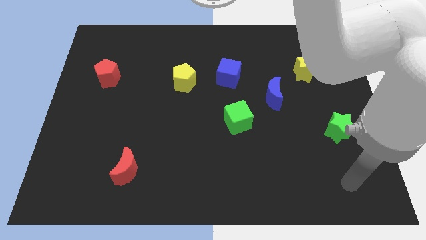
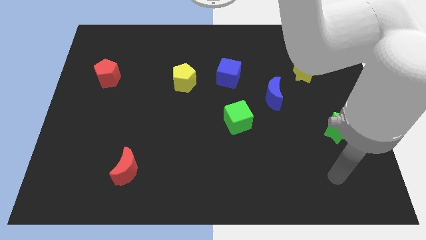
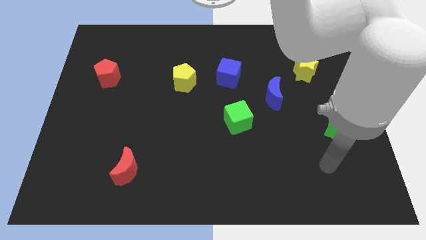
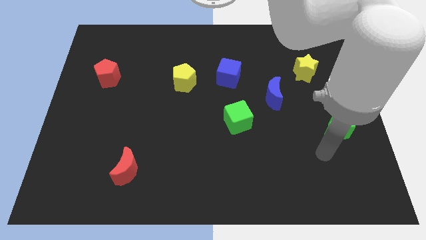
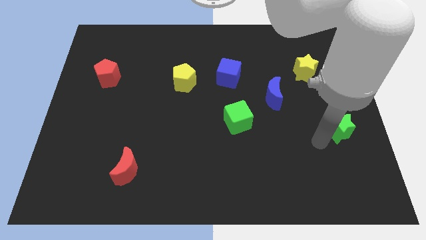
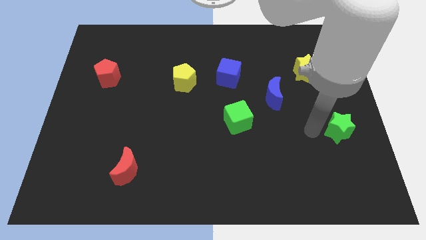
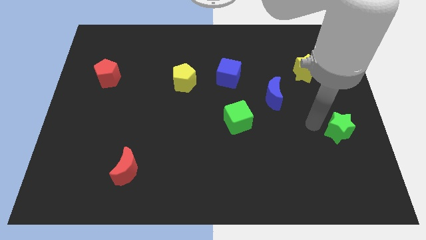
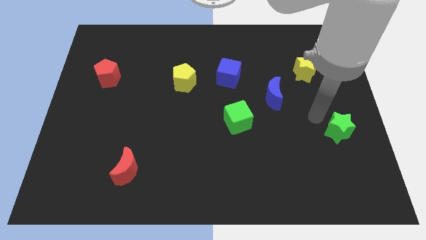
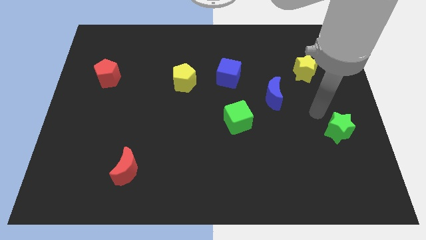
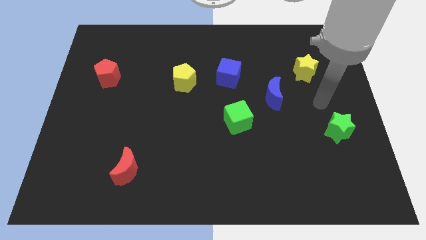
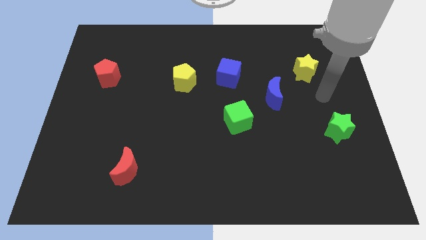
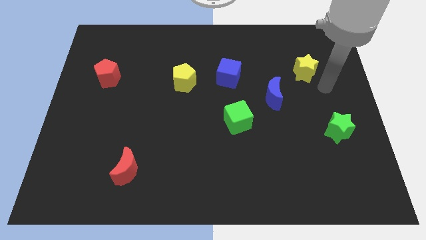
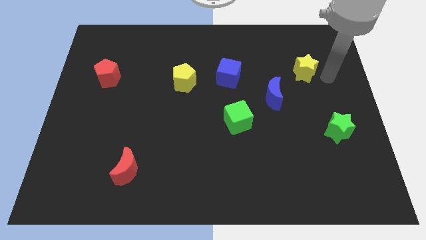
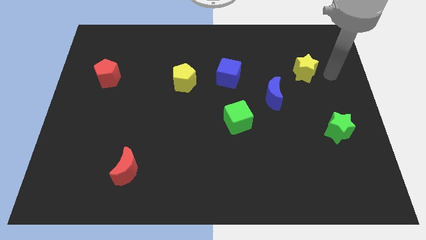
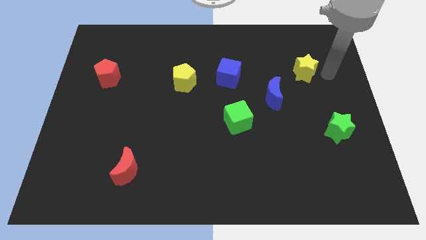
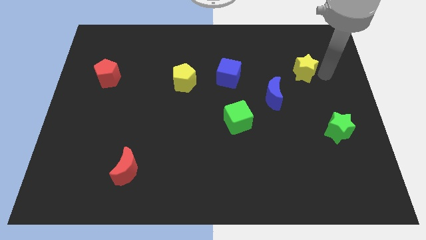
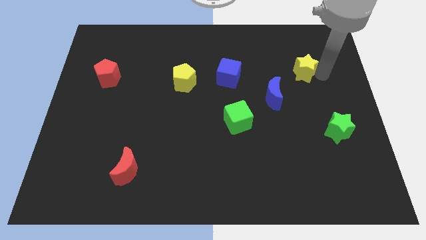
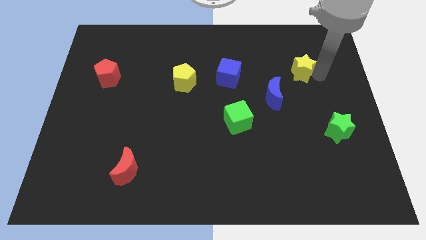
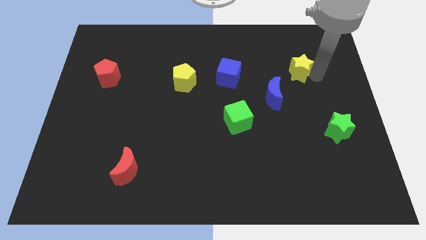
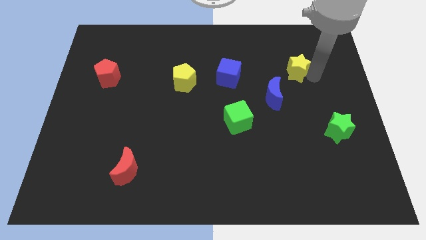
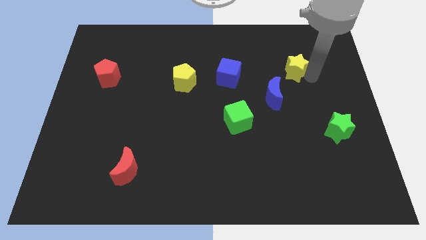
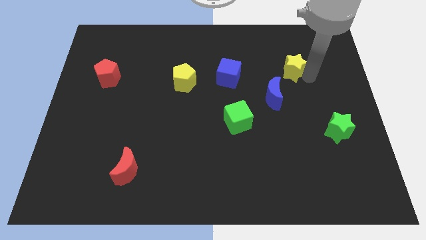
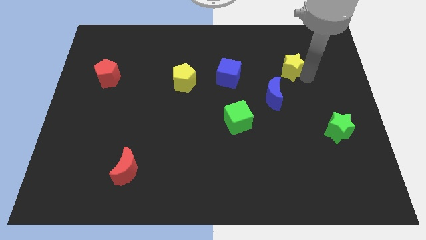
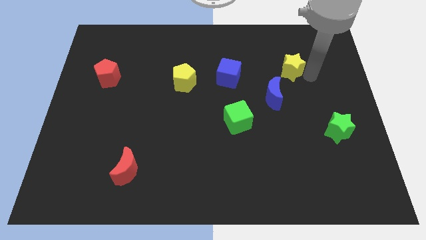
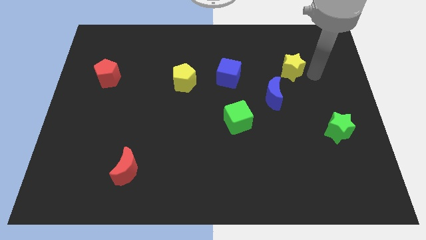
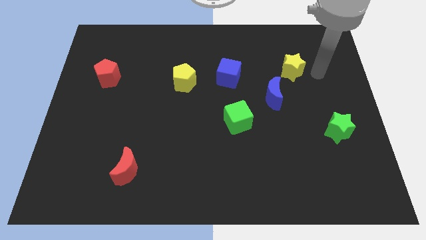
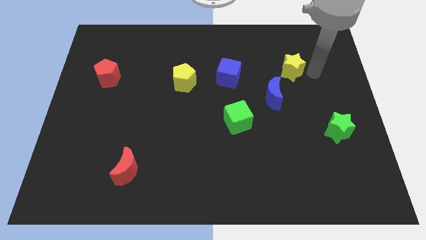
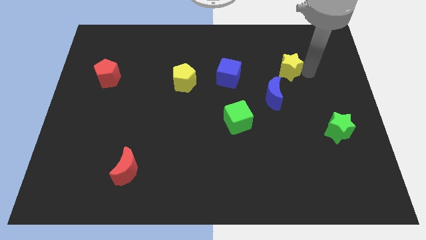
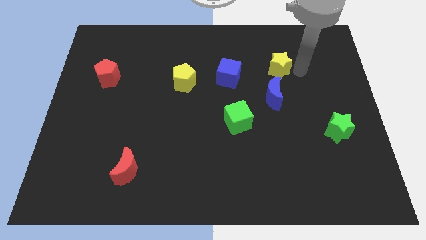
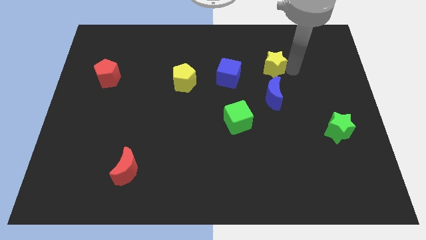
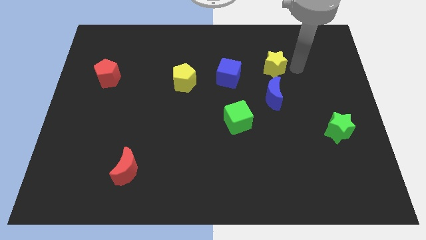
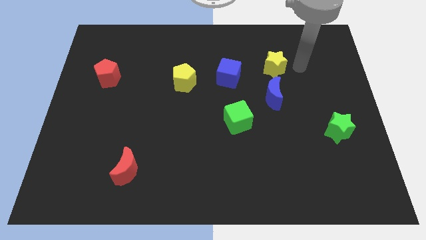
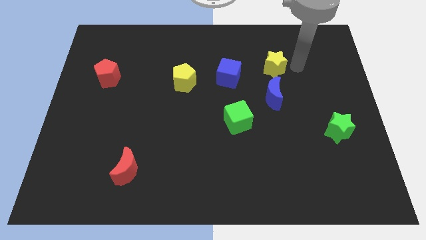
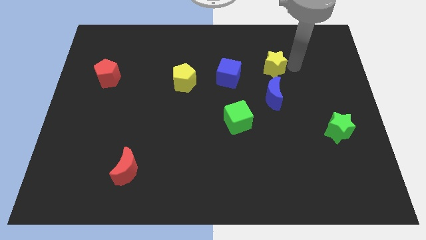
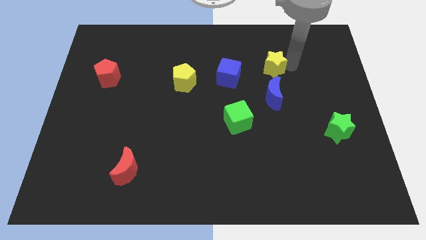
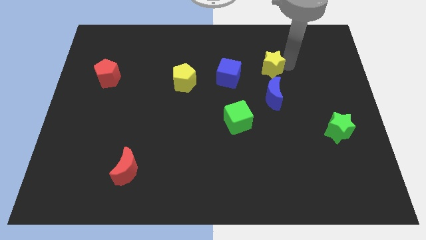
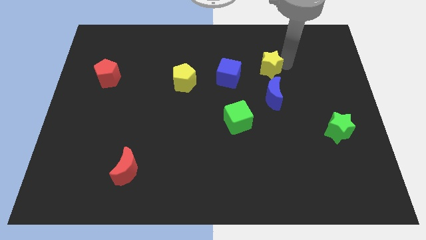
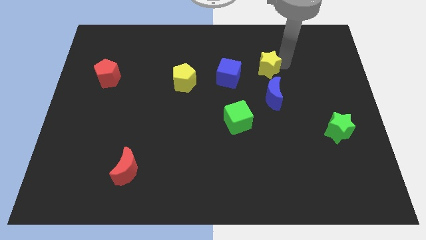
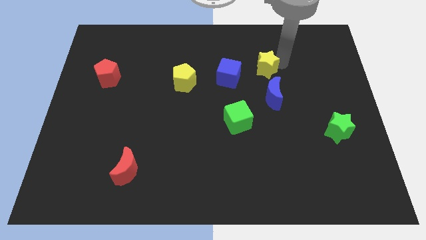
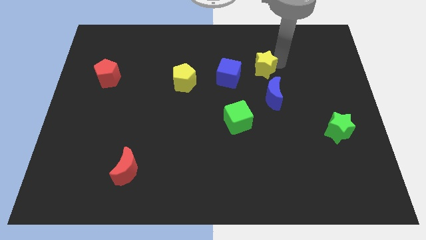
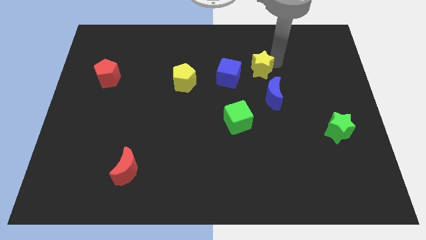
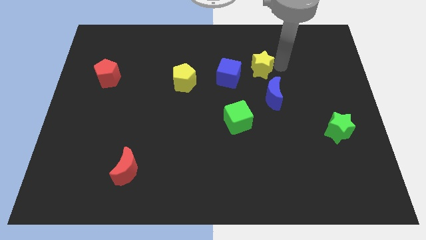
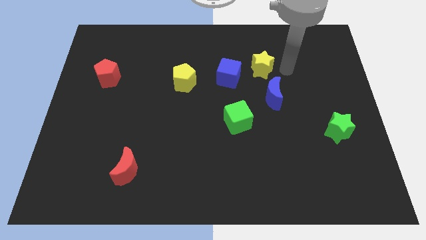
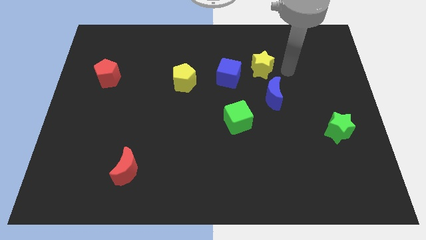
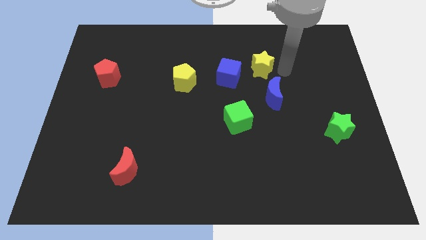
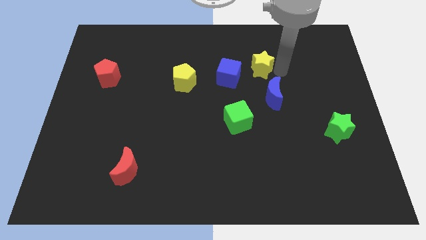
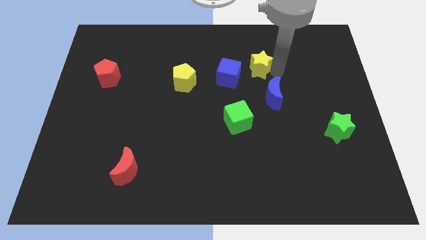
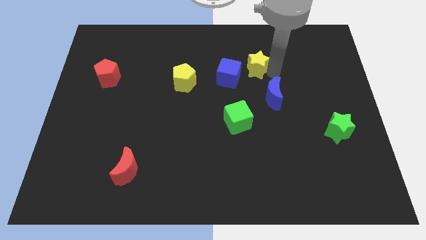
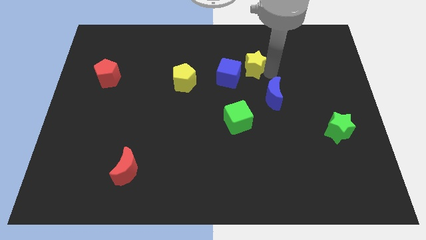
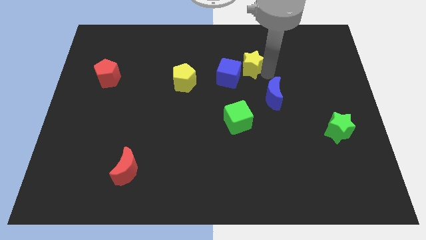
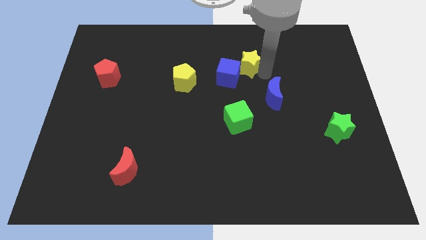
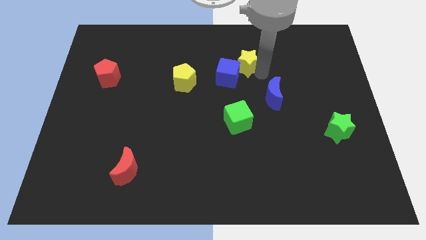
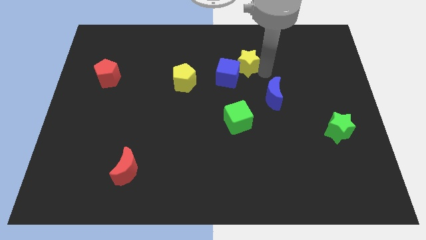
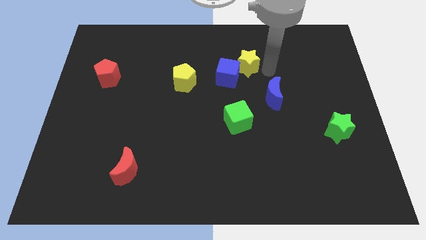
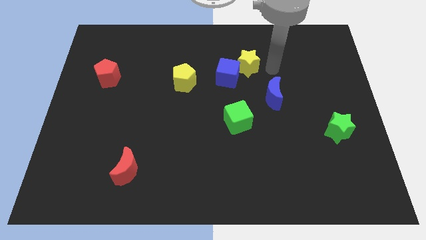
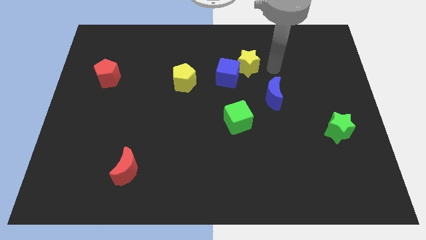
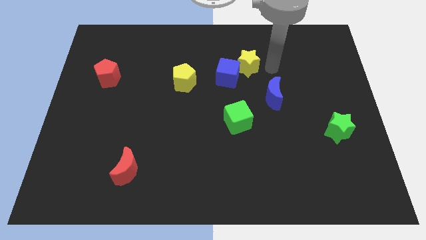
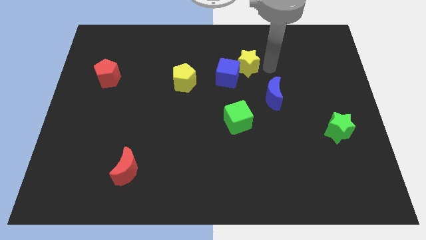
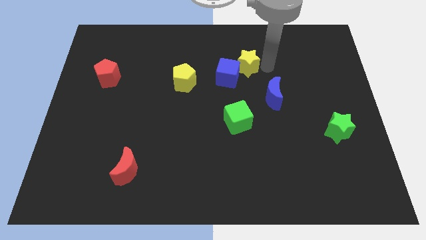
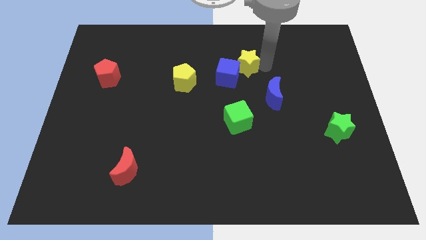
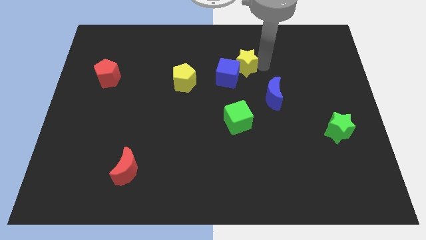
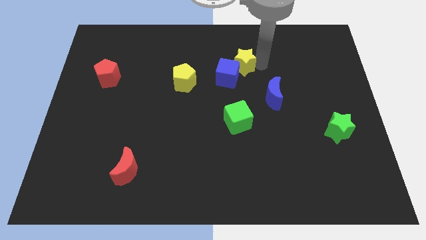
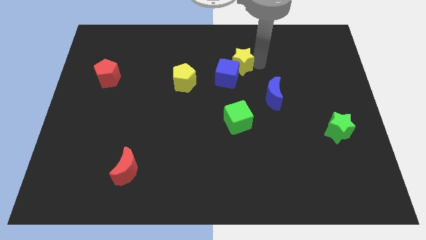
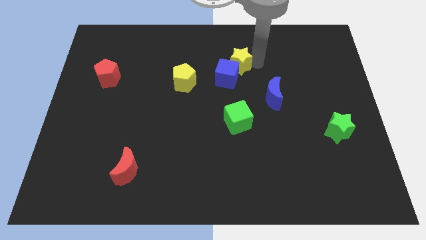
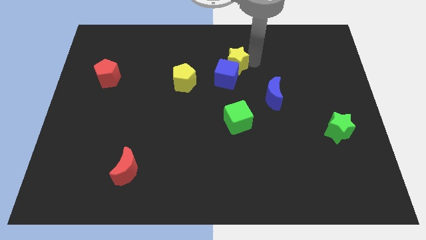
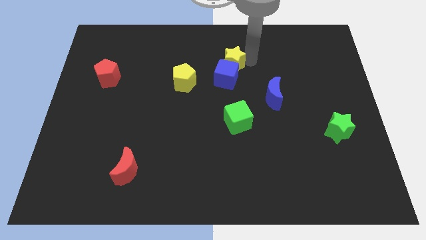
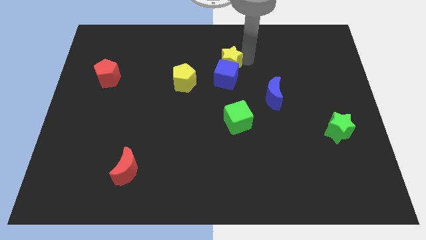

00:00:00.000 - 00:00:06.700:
move the yellow star to the top left of the blue cube
